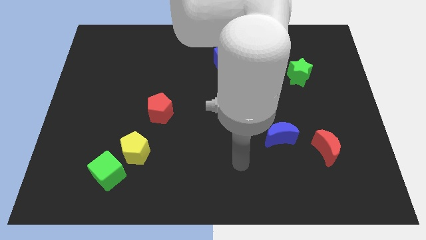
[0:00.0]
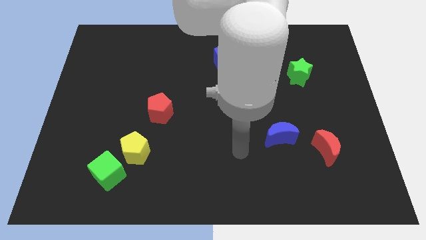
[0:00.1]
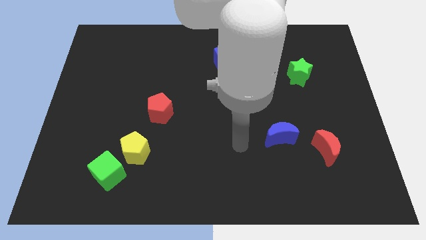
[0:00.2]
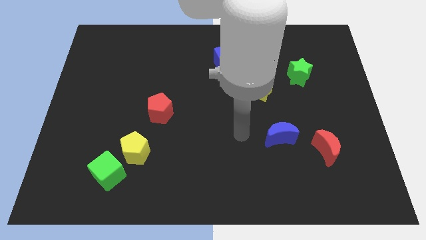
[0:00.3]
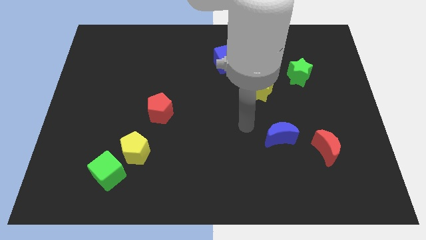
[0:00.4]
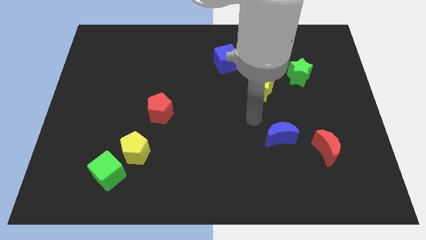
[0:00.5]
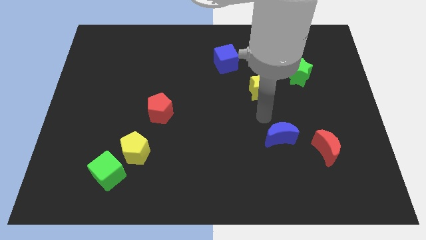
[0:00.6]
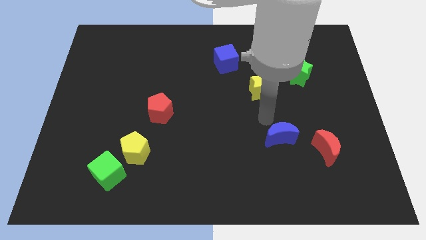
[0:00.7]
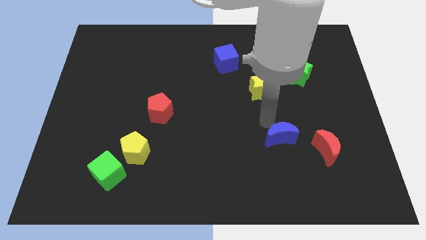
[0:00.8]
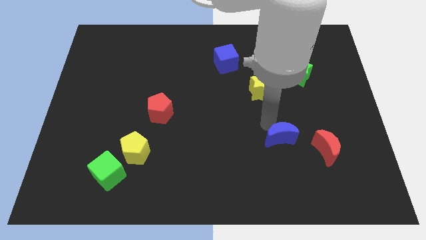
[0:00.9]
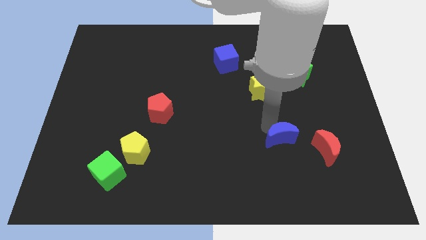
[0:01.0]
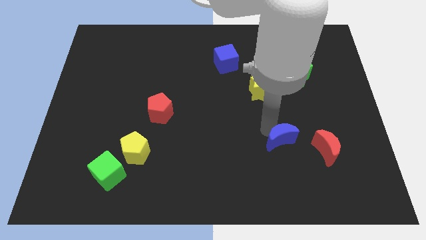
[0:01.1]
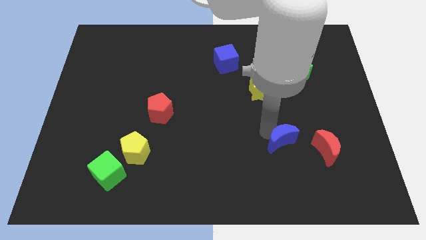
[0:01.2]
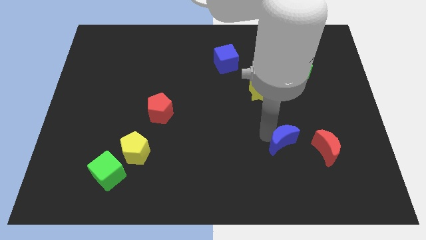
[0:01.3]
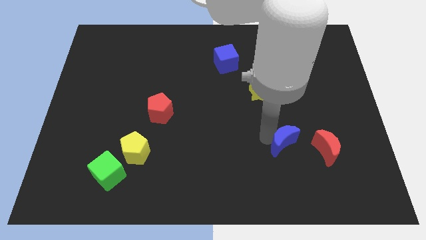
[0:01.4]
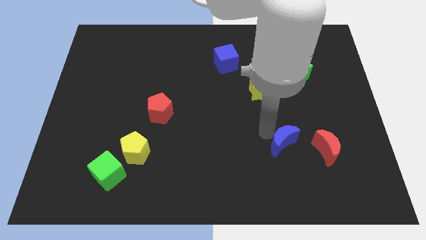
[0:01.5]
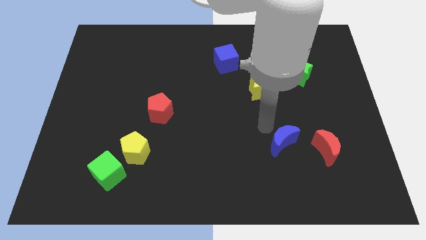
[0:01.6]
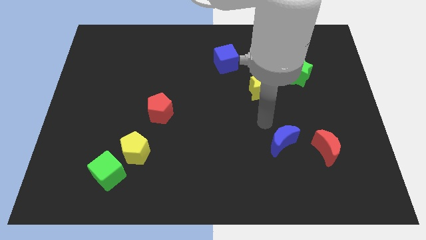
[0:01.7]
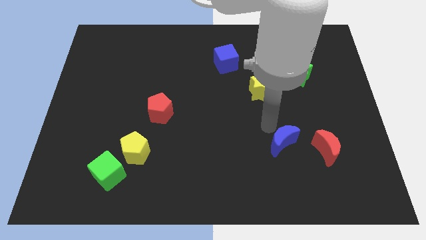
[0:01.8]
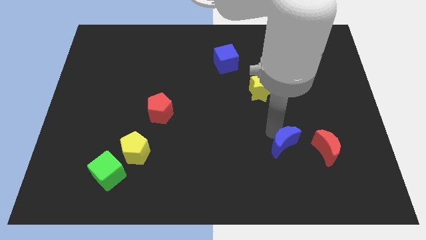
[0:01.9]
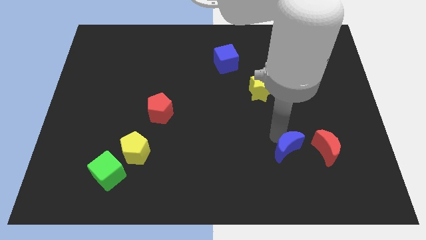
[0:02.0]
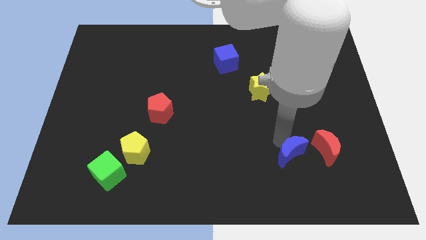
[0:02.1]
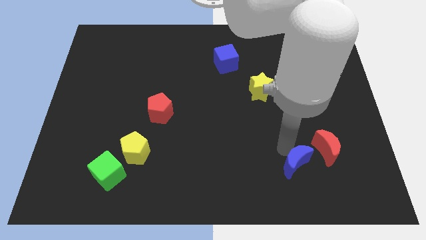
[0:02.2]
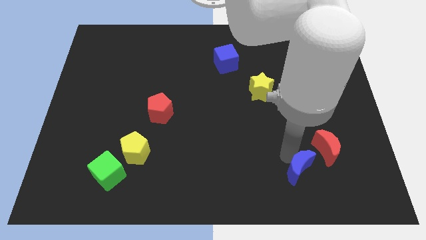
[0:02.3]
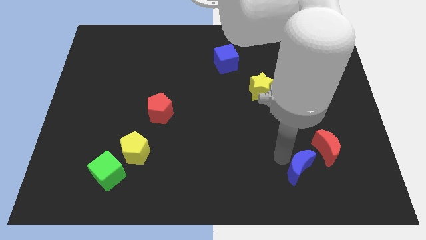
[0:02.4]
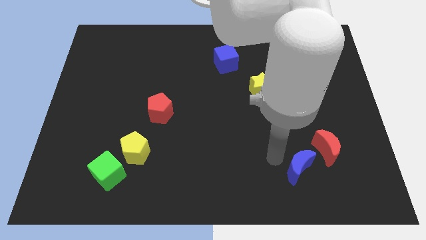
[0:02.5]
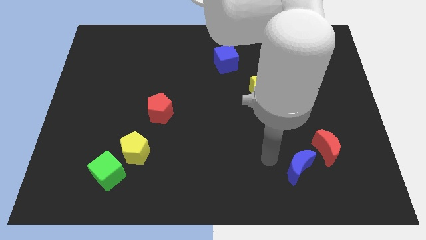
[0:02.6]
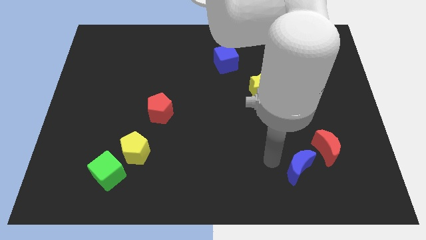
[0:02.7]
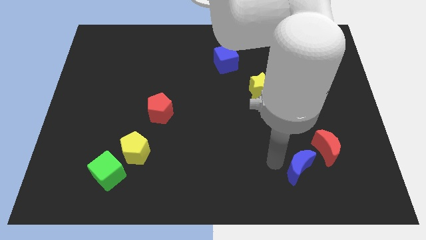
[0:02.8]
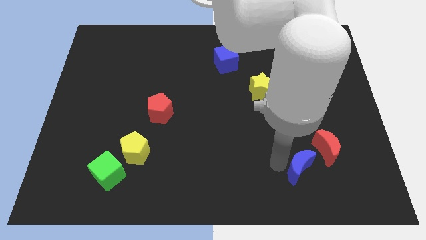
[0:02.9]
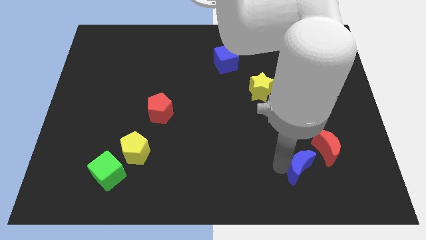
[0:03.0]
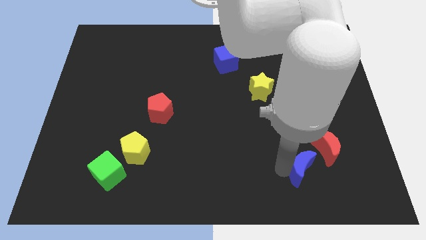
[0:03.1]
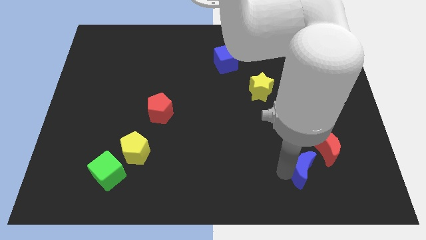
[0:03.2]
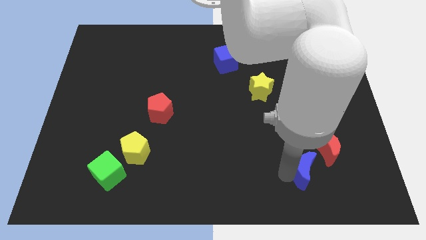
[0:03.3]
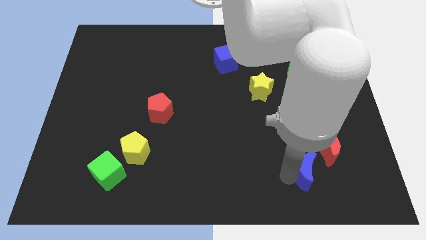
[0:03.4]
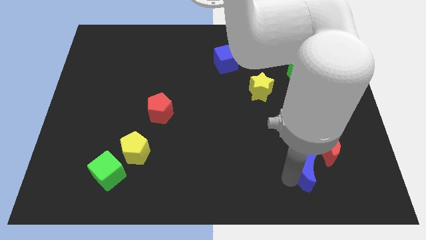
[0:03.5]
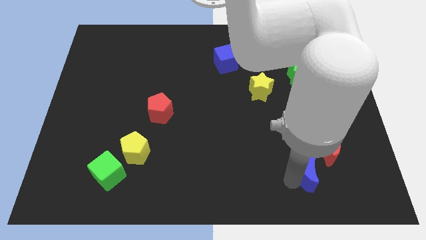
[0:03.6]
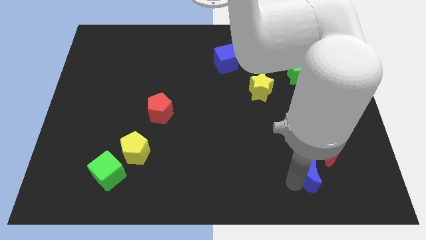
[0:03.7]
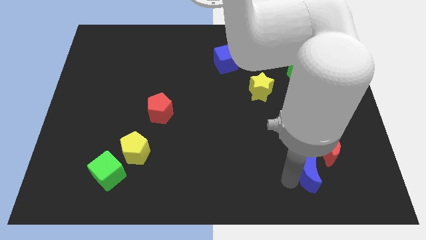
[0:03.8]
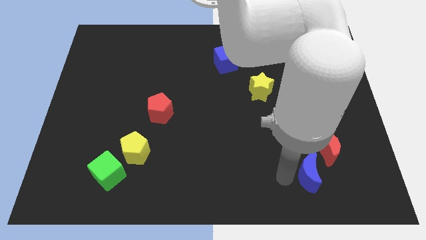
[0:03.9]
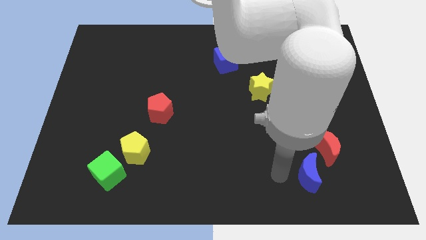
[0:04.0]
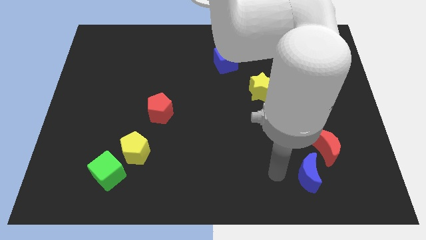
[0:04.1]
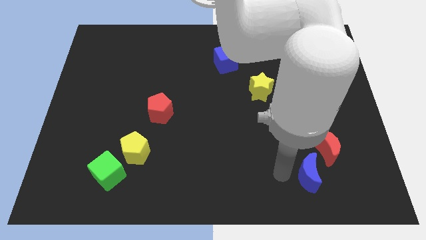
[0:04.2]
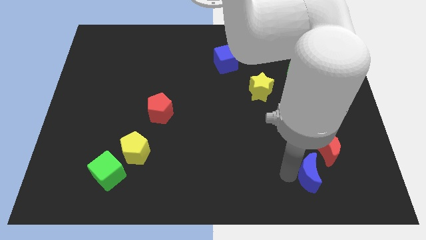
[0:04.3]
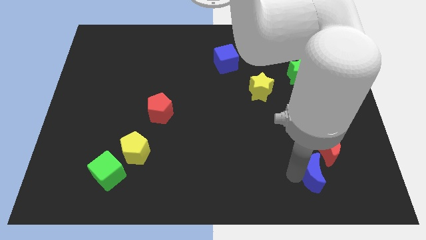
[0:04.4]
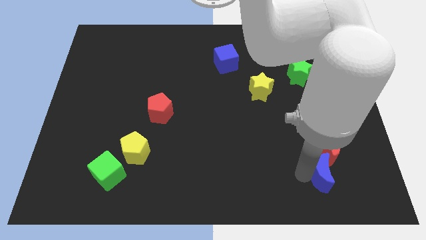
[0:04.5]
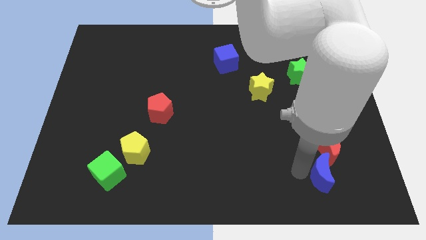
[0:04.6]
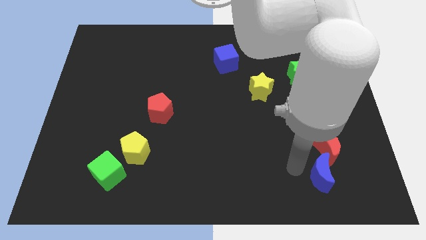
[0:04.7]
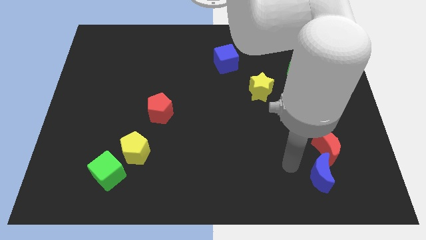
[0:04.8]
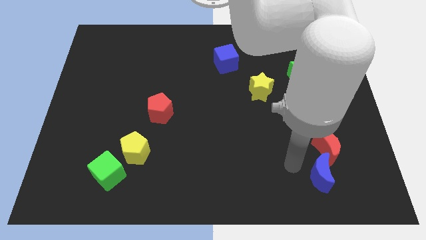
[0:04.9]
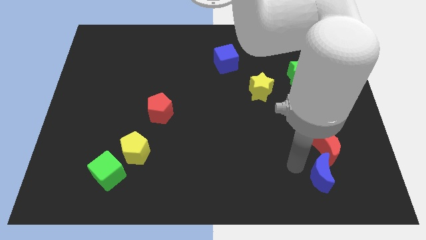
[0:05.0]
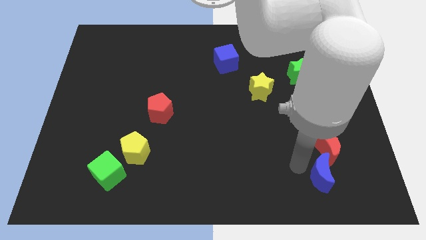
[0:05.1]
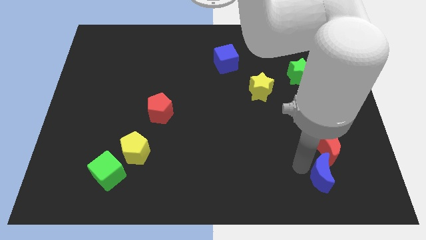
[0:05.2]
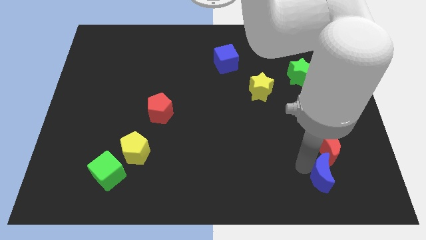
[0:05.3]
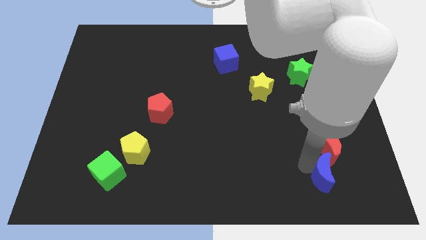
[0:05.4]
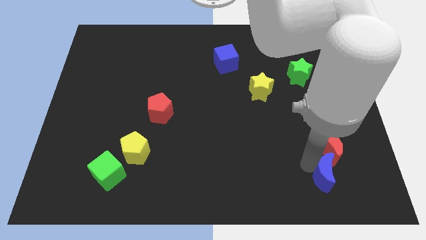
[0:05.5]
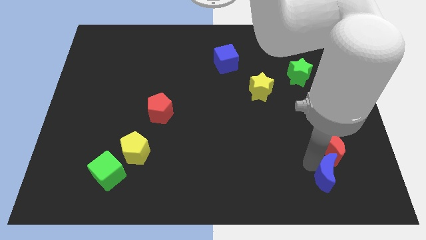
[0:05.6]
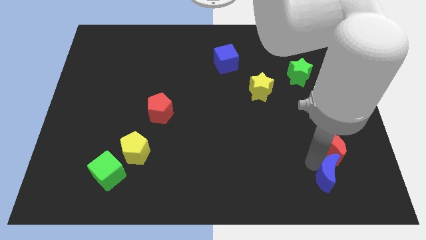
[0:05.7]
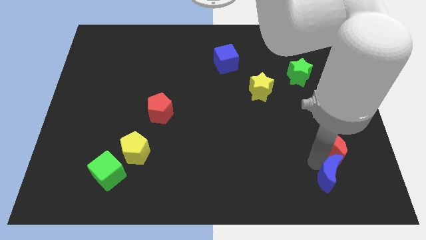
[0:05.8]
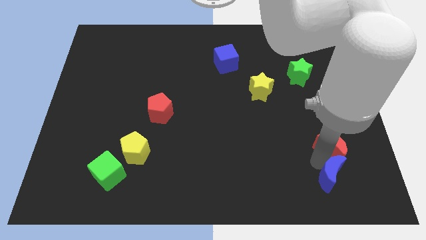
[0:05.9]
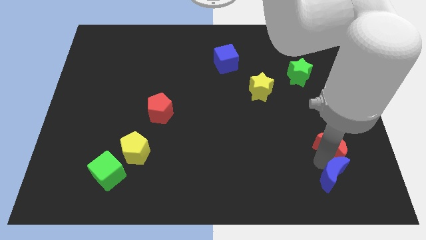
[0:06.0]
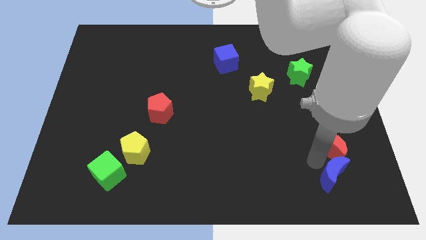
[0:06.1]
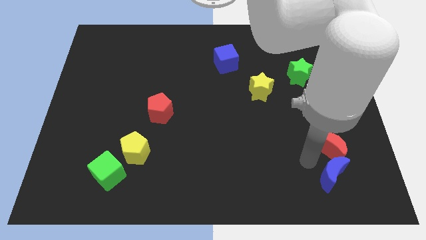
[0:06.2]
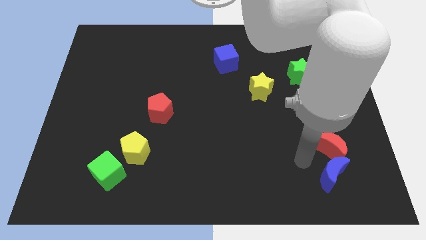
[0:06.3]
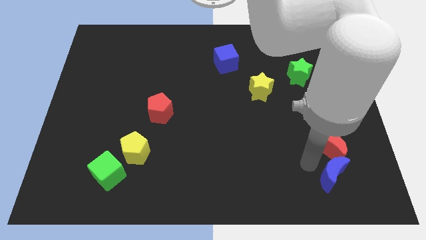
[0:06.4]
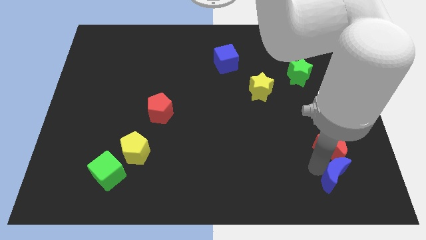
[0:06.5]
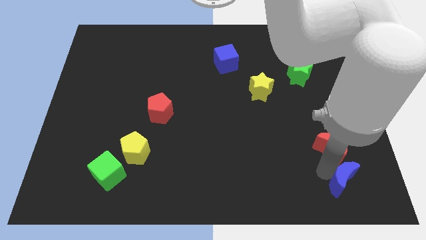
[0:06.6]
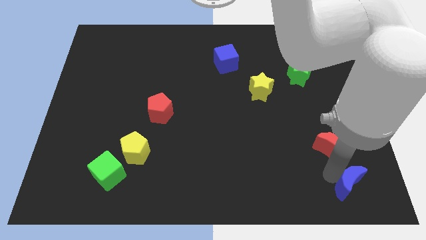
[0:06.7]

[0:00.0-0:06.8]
put the blue moon to the bottom right of the board

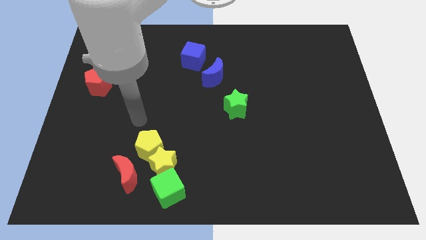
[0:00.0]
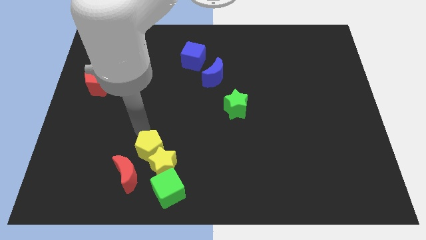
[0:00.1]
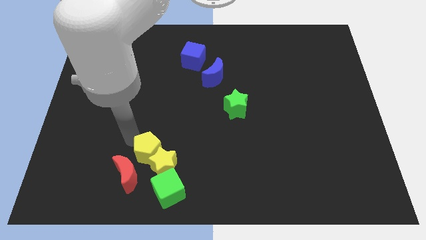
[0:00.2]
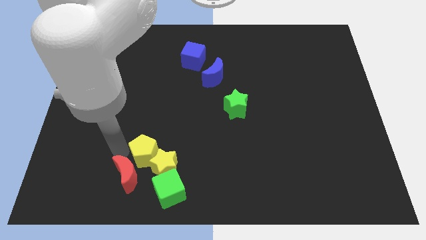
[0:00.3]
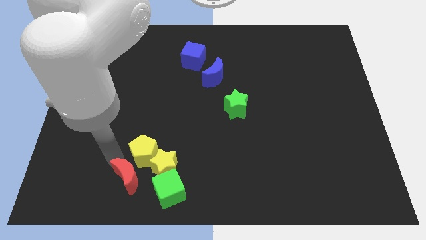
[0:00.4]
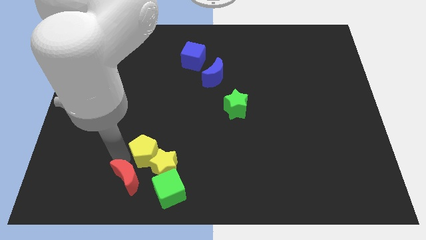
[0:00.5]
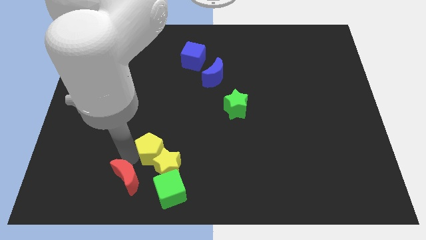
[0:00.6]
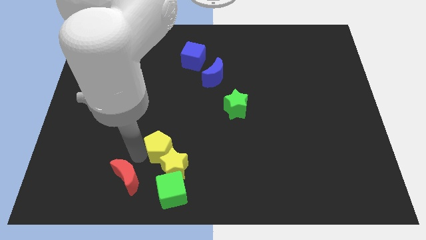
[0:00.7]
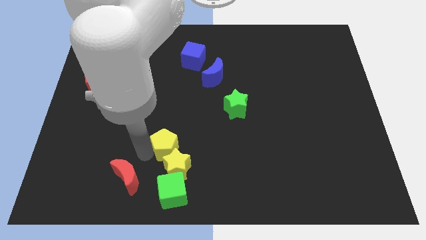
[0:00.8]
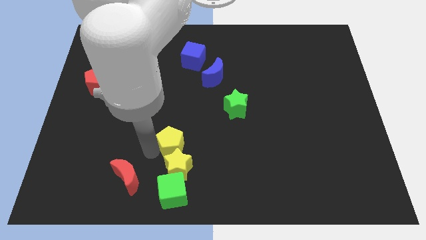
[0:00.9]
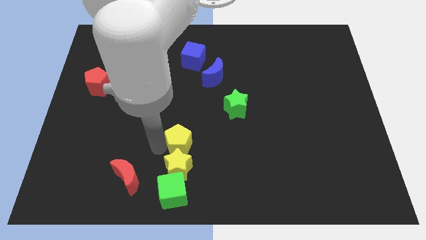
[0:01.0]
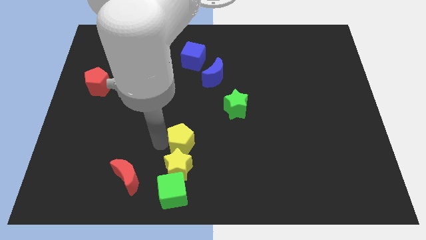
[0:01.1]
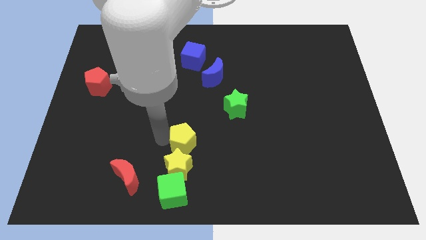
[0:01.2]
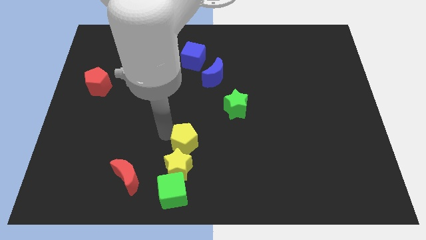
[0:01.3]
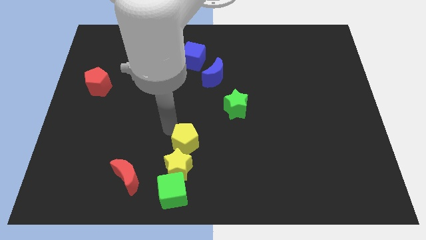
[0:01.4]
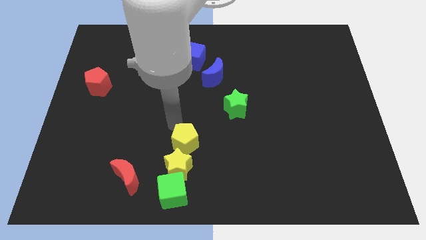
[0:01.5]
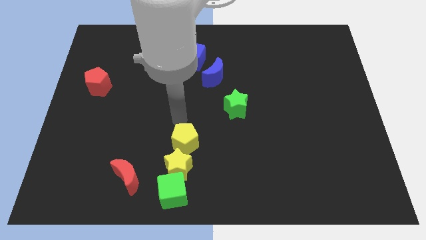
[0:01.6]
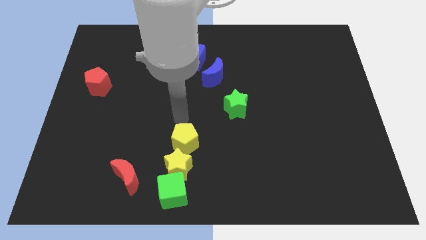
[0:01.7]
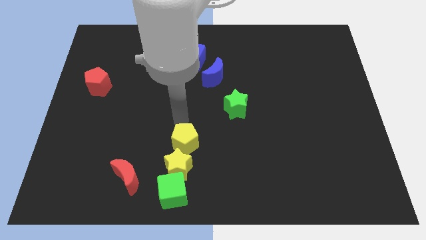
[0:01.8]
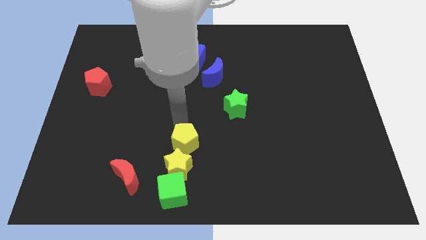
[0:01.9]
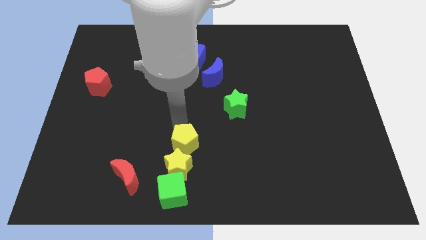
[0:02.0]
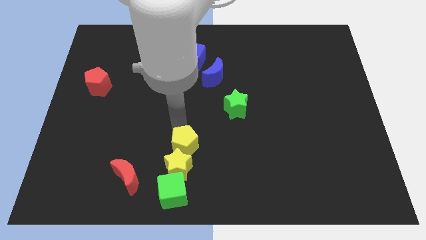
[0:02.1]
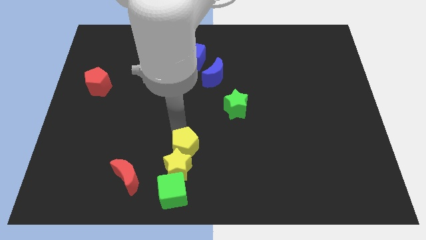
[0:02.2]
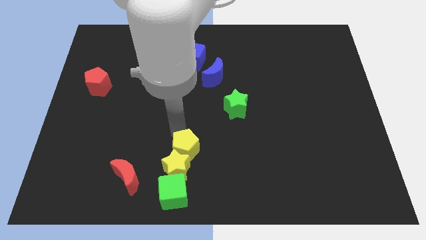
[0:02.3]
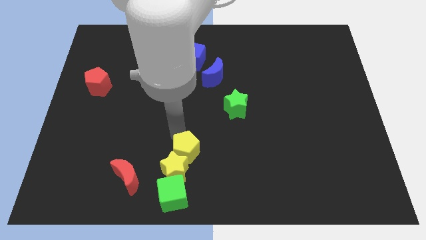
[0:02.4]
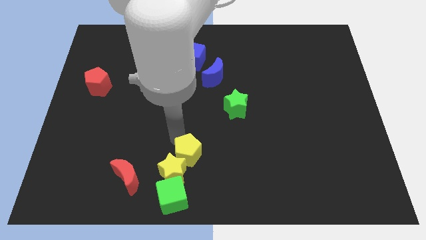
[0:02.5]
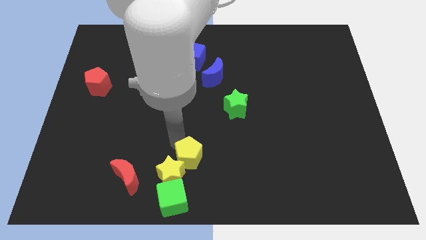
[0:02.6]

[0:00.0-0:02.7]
put the yellow pentagon to the bottom side
